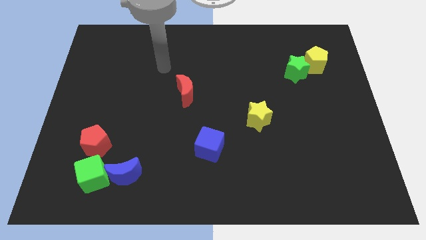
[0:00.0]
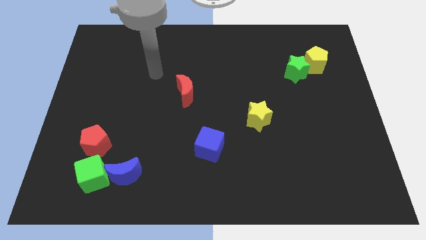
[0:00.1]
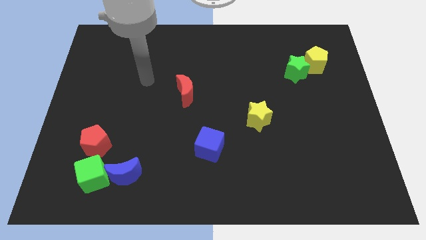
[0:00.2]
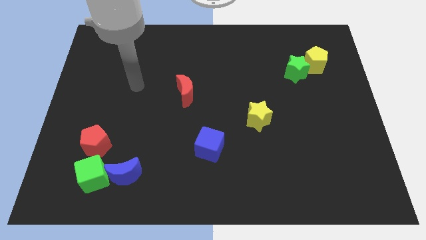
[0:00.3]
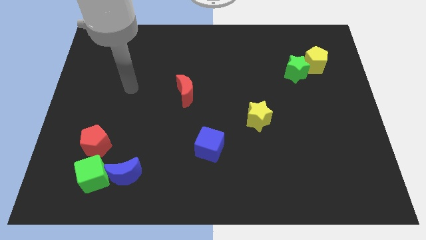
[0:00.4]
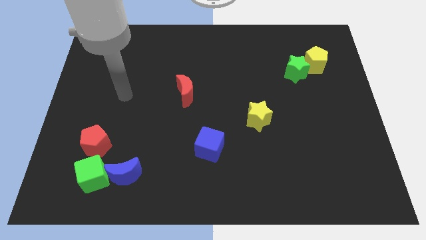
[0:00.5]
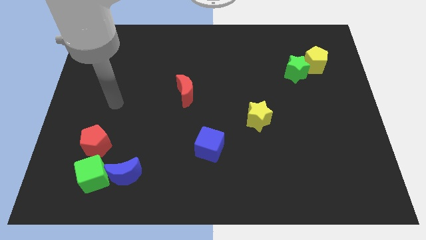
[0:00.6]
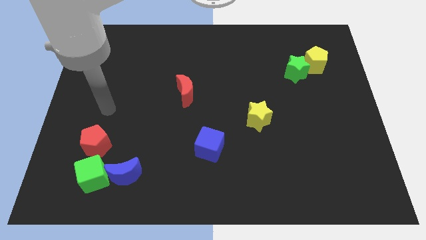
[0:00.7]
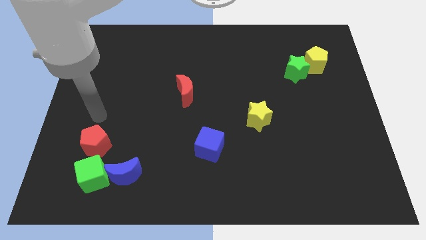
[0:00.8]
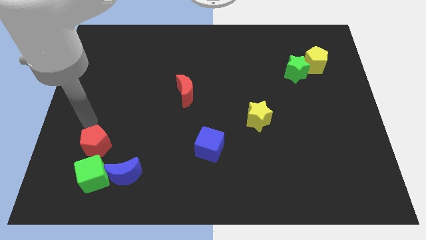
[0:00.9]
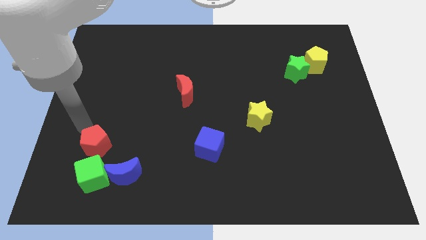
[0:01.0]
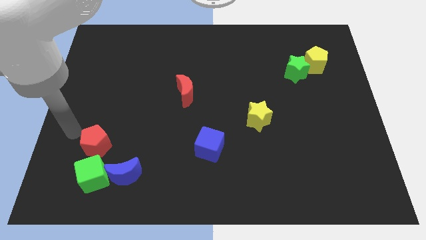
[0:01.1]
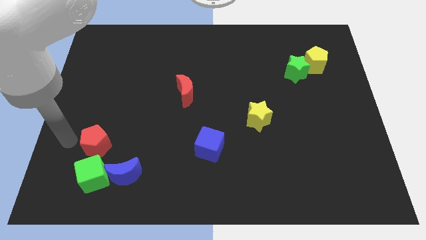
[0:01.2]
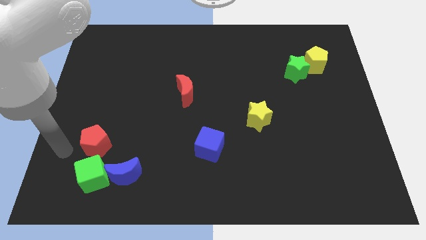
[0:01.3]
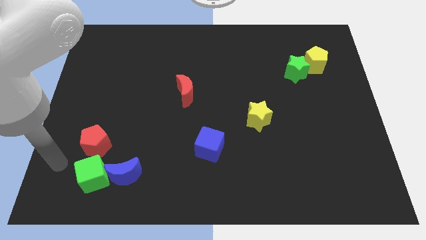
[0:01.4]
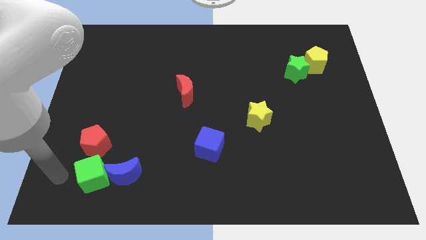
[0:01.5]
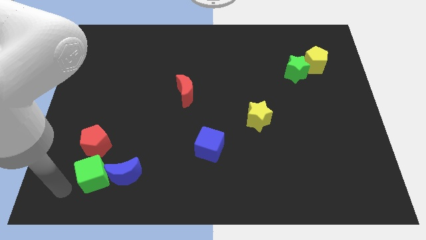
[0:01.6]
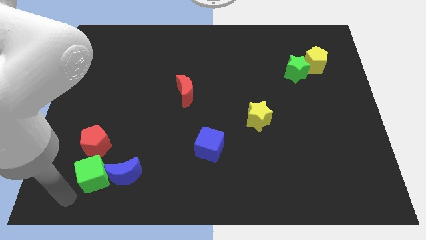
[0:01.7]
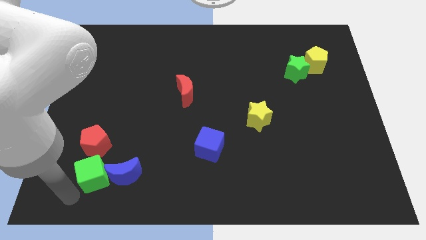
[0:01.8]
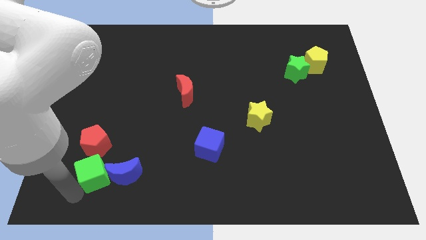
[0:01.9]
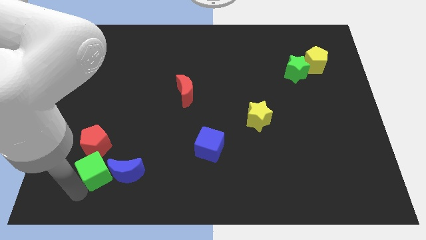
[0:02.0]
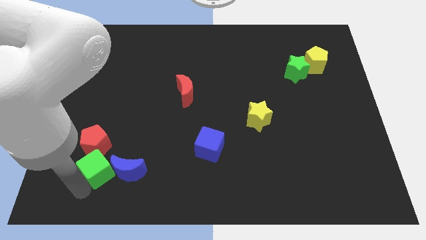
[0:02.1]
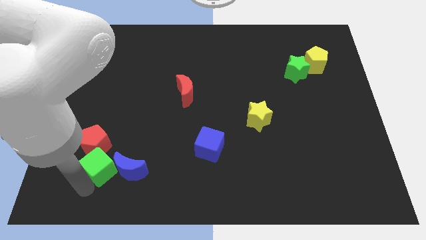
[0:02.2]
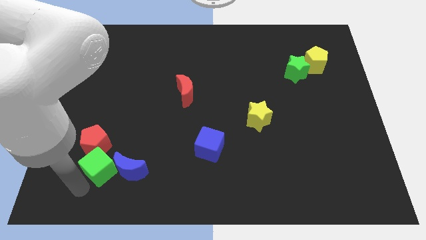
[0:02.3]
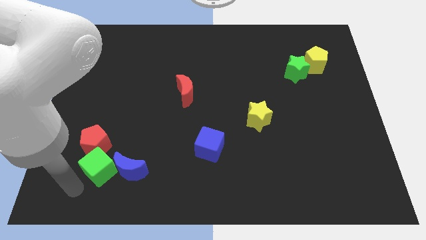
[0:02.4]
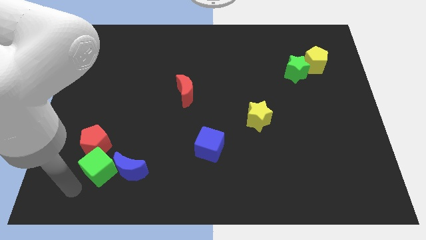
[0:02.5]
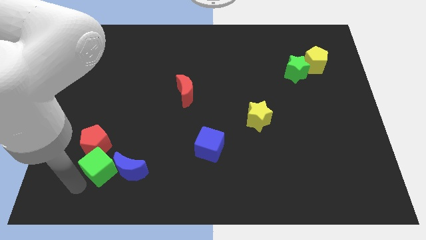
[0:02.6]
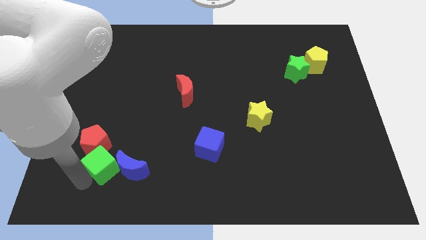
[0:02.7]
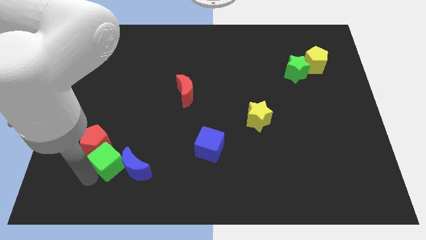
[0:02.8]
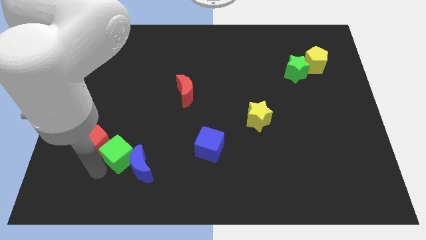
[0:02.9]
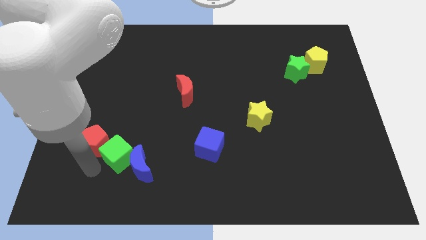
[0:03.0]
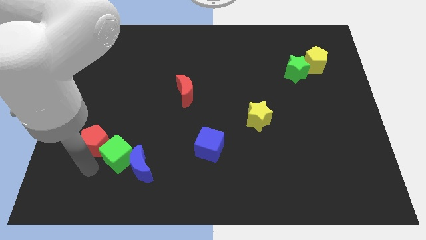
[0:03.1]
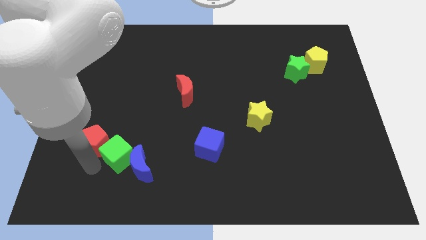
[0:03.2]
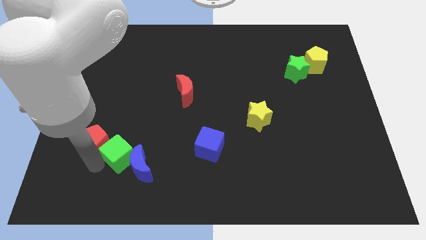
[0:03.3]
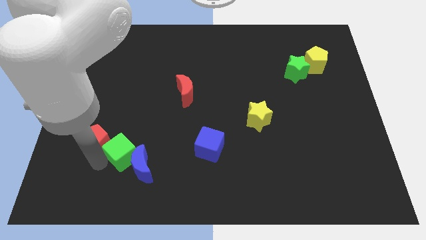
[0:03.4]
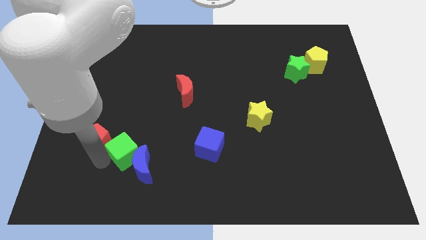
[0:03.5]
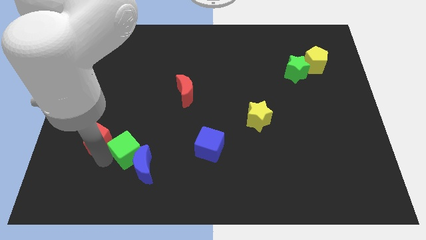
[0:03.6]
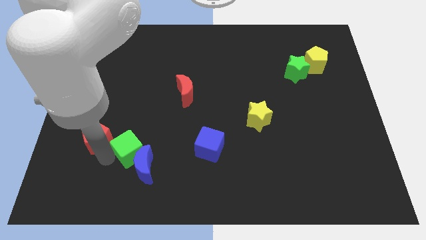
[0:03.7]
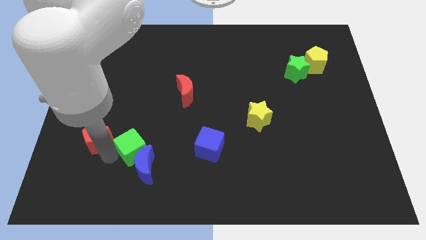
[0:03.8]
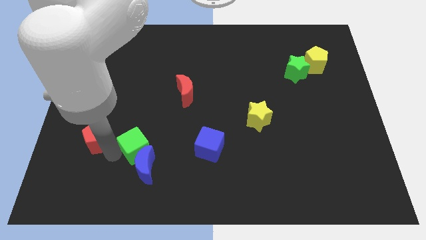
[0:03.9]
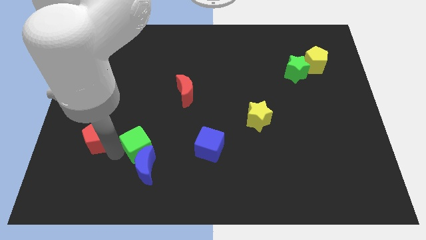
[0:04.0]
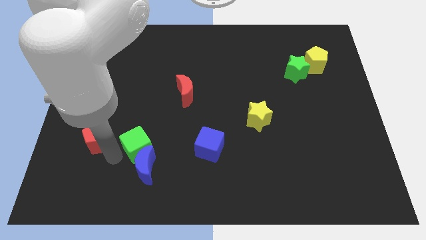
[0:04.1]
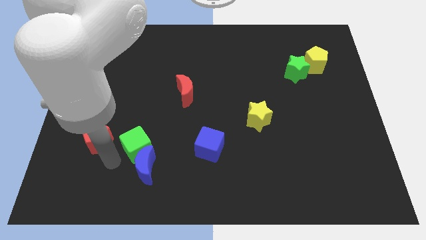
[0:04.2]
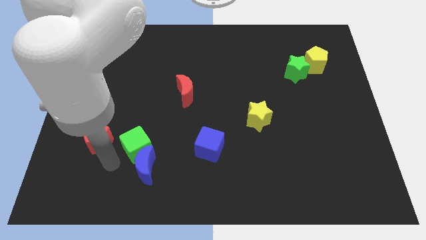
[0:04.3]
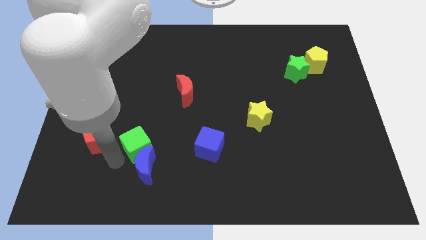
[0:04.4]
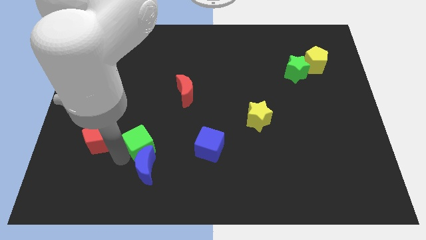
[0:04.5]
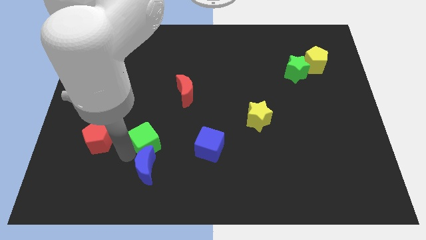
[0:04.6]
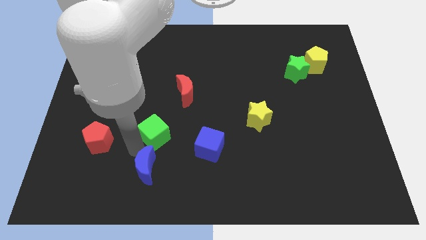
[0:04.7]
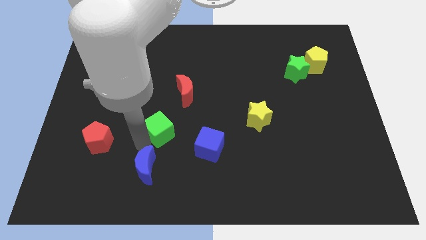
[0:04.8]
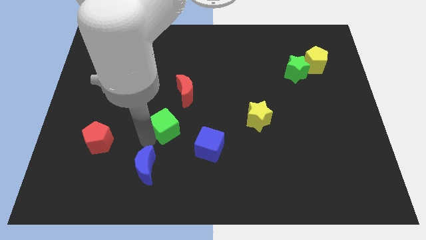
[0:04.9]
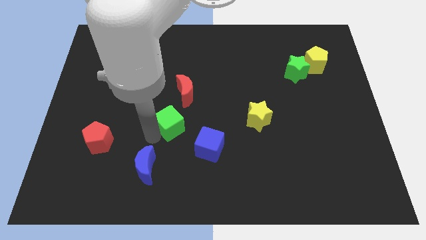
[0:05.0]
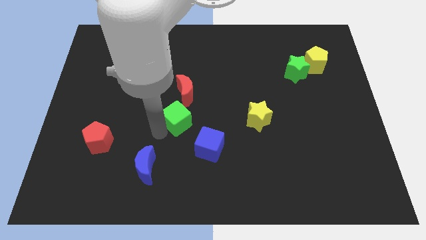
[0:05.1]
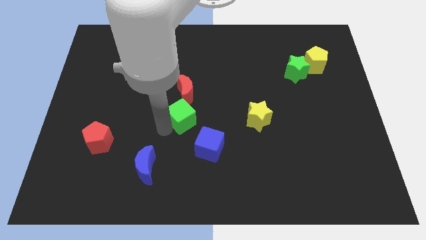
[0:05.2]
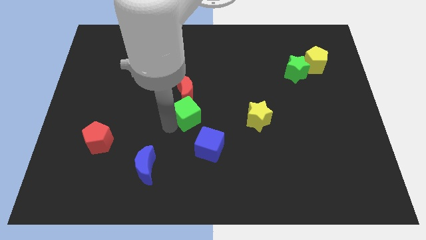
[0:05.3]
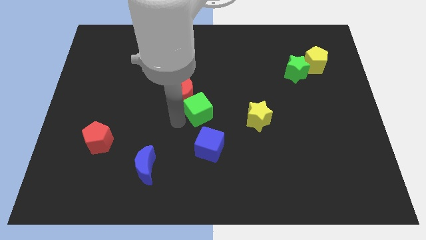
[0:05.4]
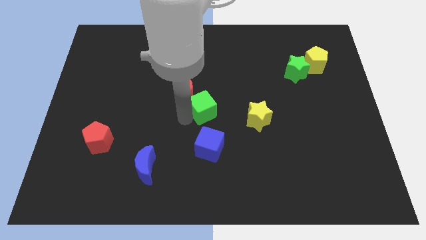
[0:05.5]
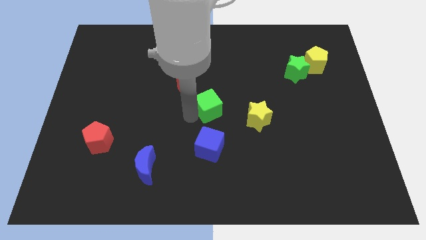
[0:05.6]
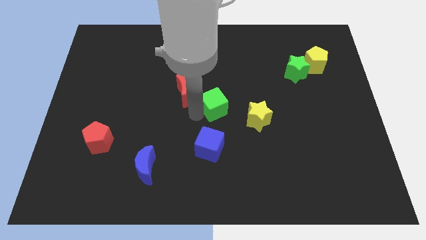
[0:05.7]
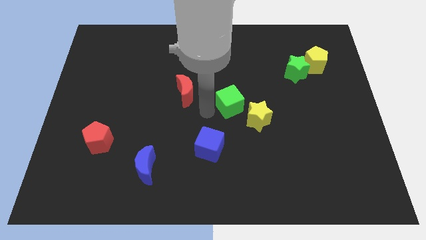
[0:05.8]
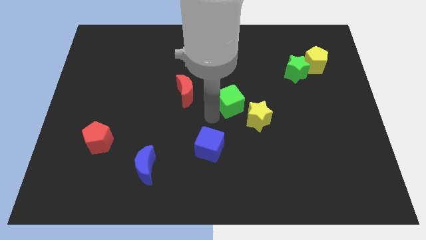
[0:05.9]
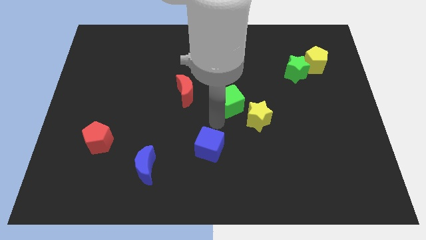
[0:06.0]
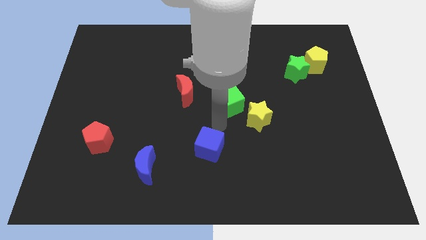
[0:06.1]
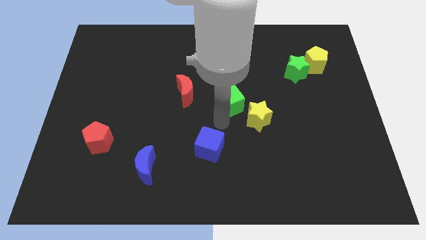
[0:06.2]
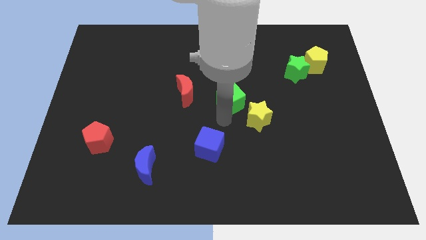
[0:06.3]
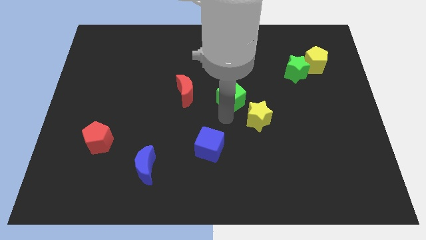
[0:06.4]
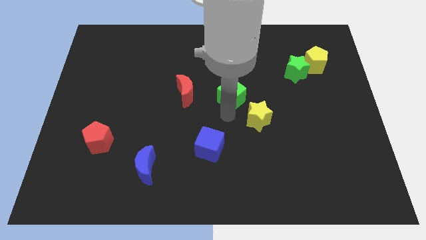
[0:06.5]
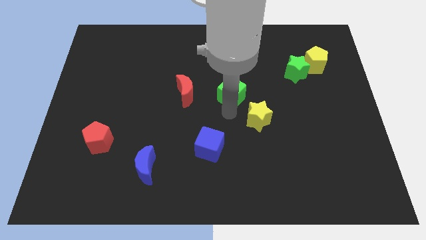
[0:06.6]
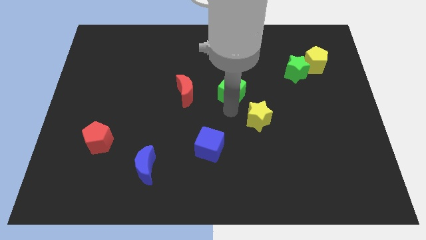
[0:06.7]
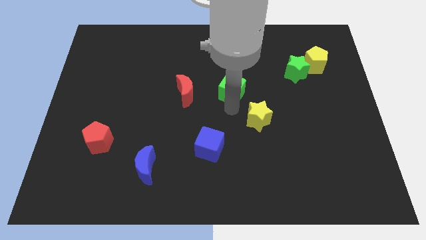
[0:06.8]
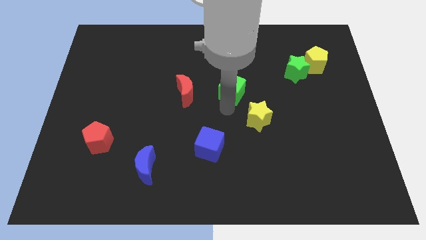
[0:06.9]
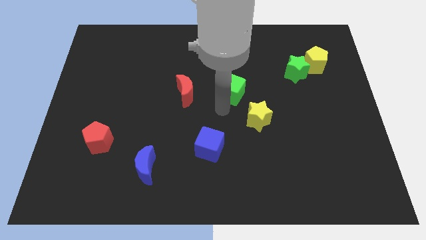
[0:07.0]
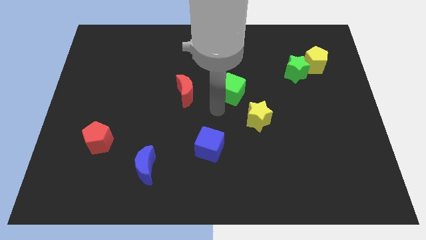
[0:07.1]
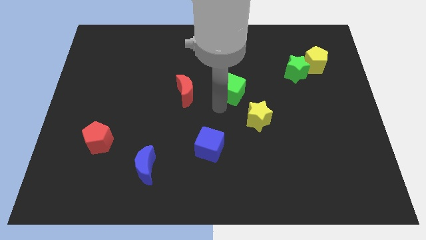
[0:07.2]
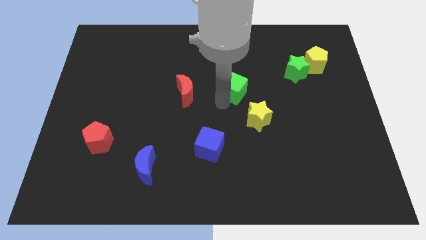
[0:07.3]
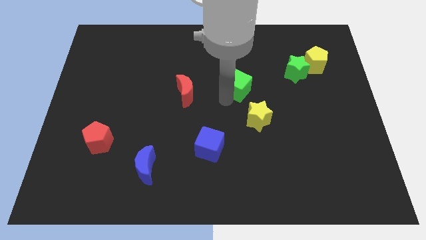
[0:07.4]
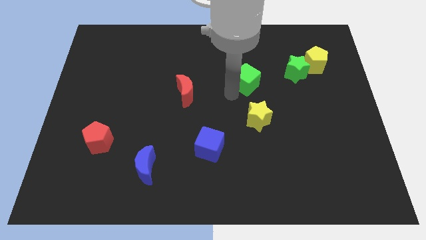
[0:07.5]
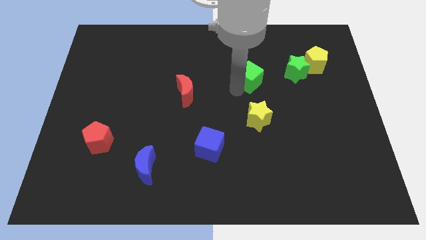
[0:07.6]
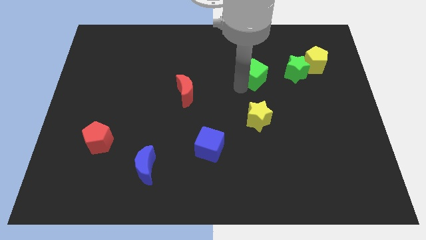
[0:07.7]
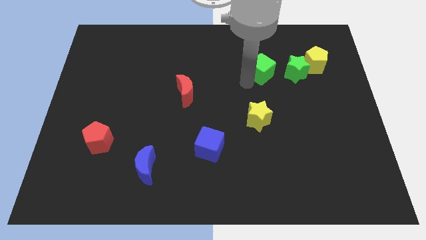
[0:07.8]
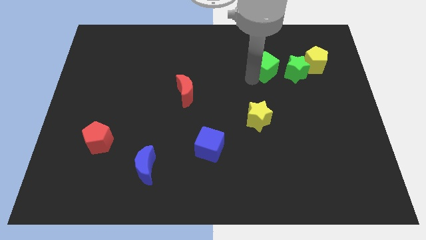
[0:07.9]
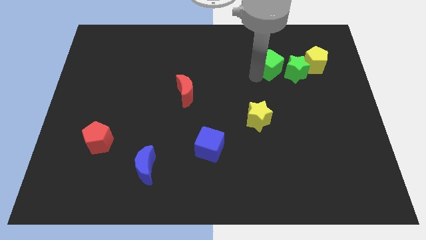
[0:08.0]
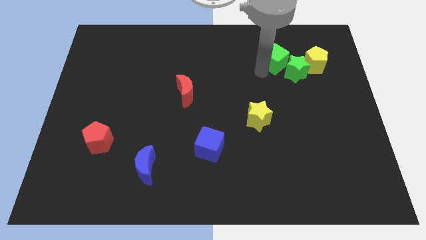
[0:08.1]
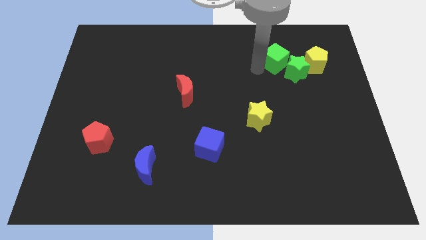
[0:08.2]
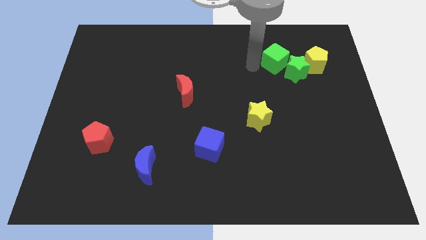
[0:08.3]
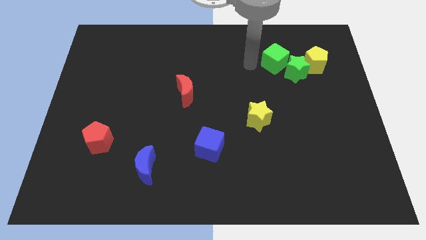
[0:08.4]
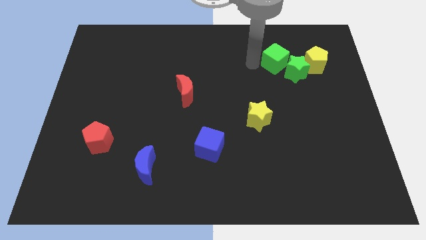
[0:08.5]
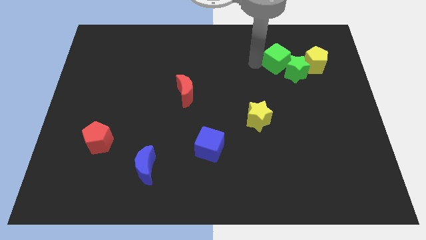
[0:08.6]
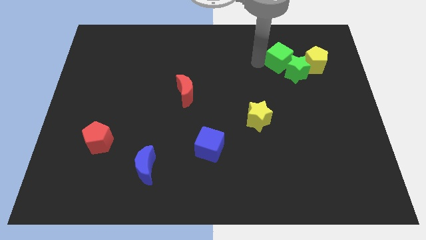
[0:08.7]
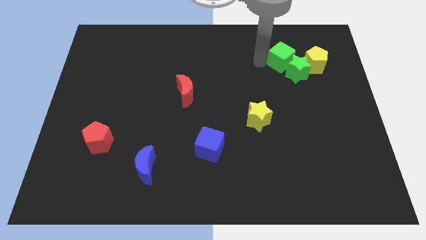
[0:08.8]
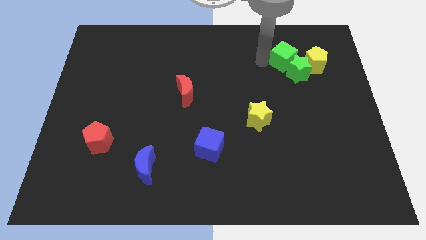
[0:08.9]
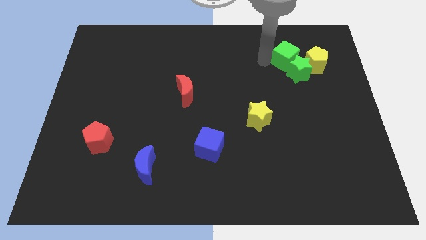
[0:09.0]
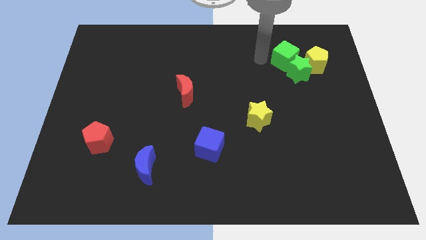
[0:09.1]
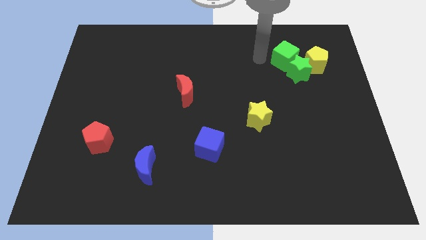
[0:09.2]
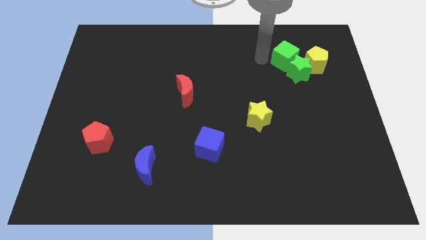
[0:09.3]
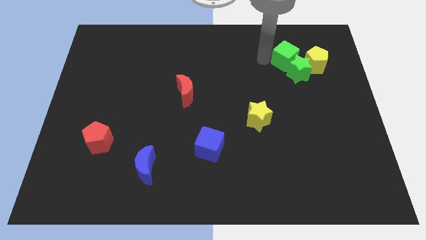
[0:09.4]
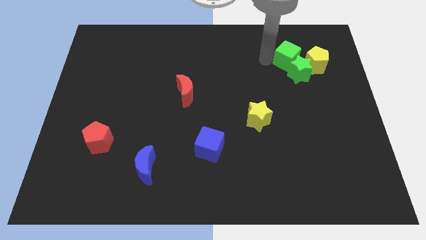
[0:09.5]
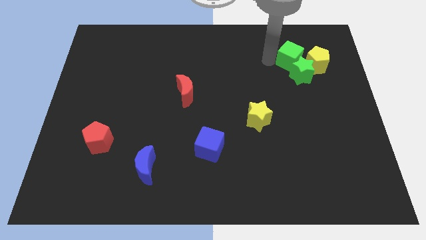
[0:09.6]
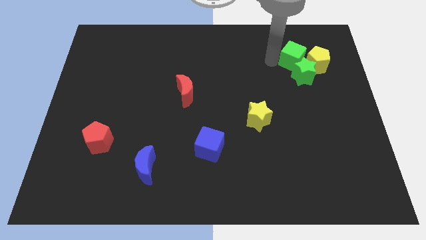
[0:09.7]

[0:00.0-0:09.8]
move the green cube close to the yellow pentagon
